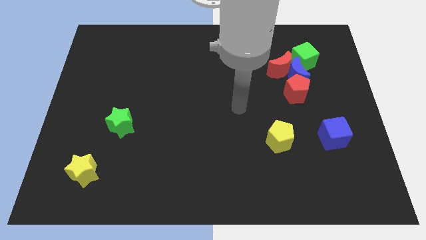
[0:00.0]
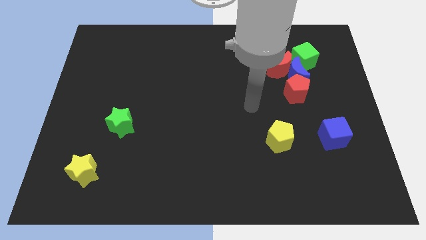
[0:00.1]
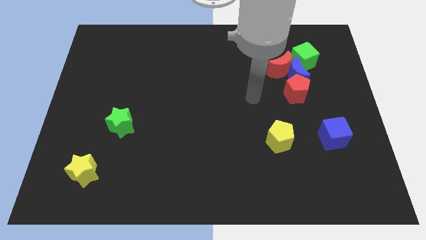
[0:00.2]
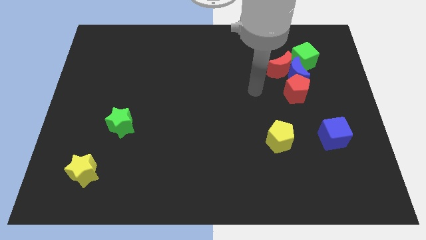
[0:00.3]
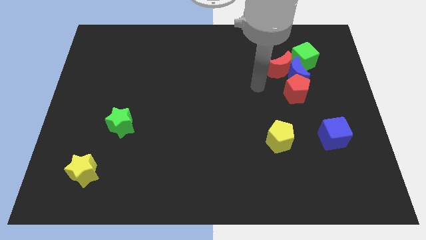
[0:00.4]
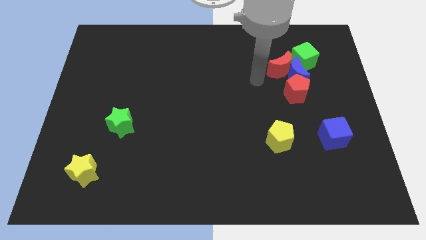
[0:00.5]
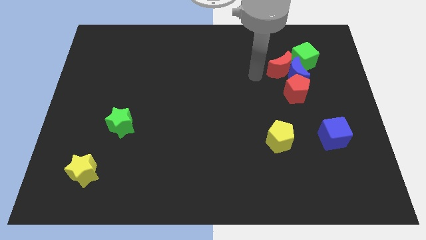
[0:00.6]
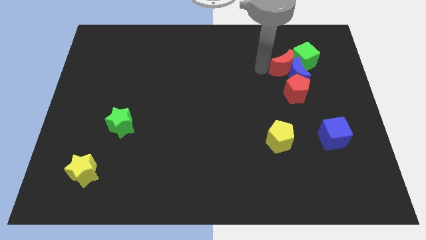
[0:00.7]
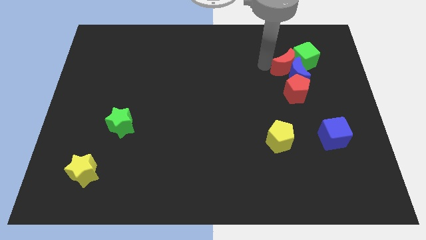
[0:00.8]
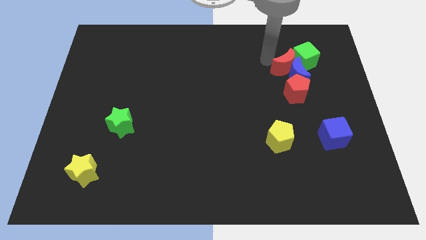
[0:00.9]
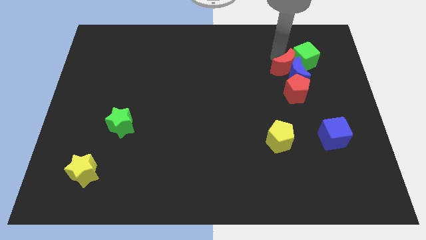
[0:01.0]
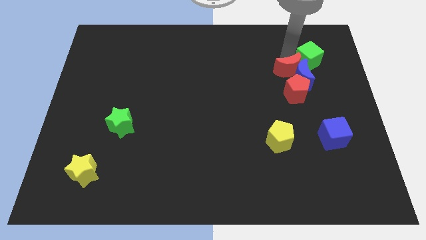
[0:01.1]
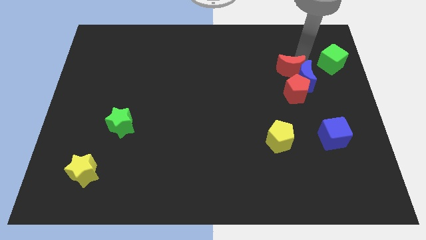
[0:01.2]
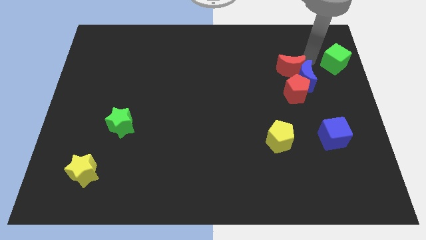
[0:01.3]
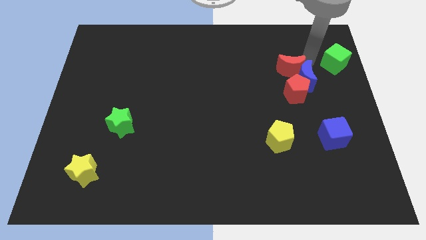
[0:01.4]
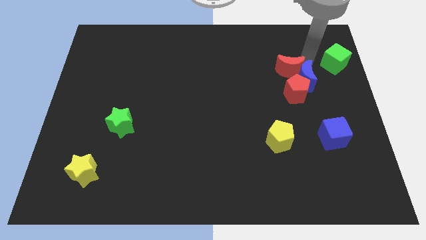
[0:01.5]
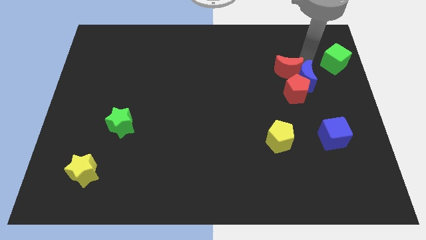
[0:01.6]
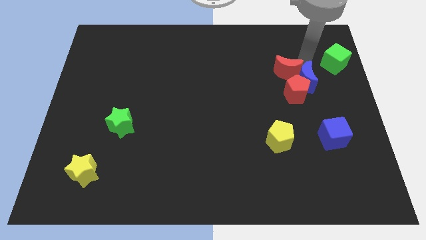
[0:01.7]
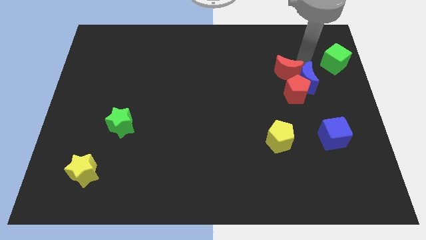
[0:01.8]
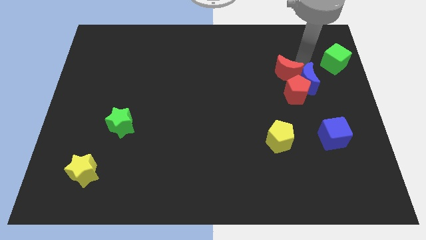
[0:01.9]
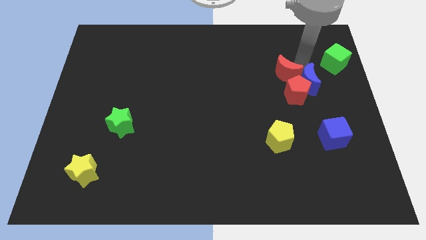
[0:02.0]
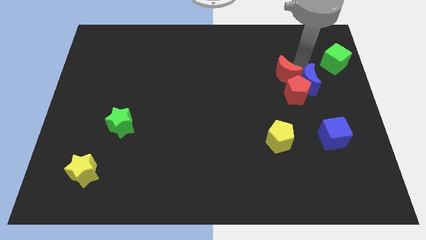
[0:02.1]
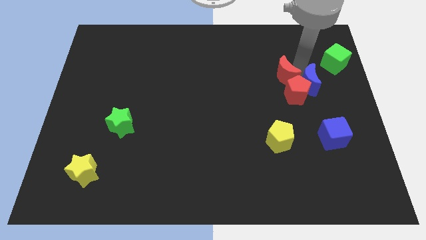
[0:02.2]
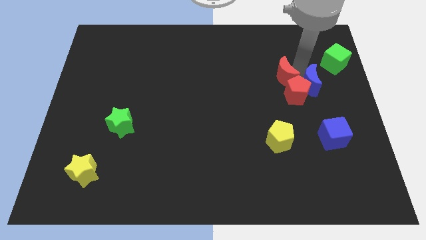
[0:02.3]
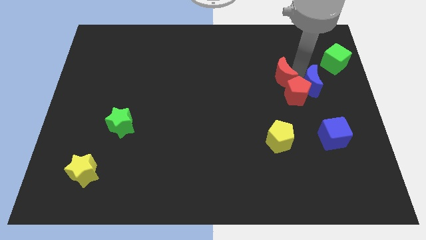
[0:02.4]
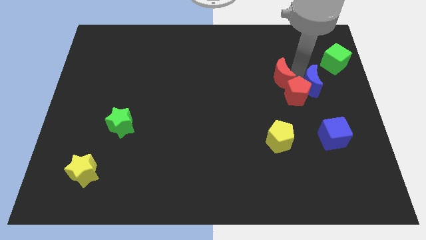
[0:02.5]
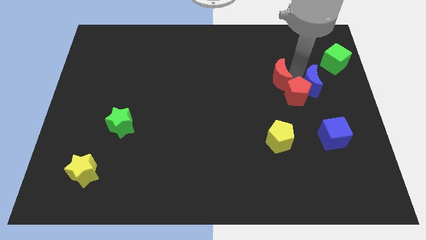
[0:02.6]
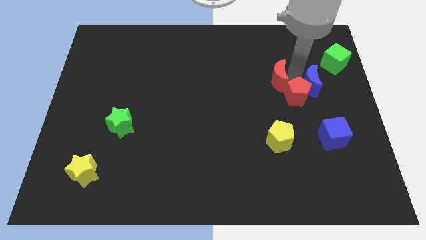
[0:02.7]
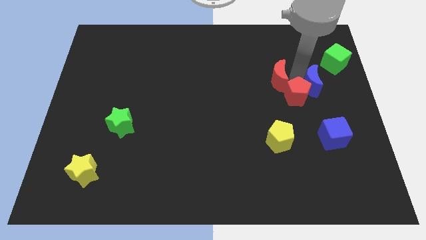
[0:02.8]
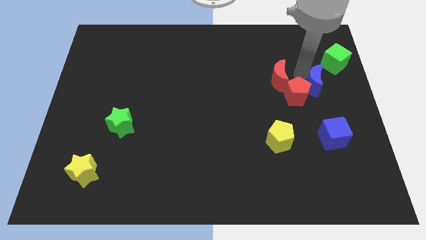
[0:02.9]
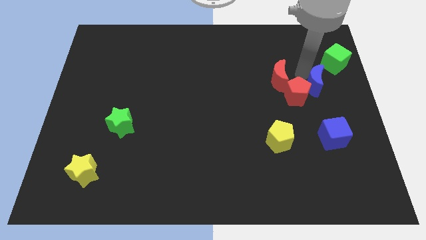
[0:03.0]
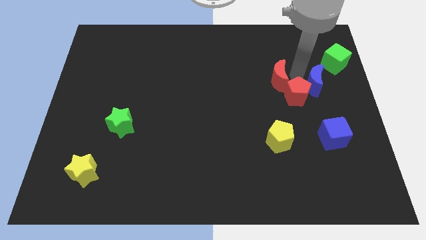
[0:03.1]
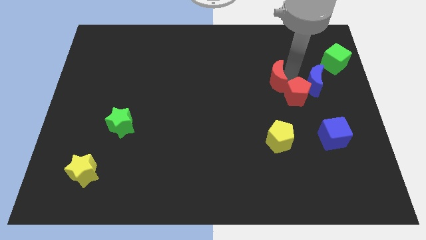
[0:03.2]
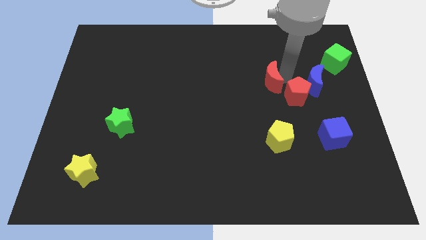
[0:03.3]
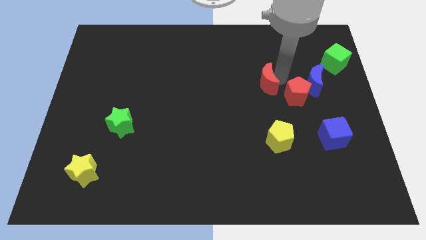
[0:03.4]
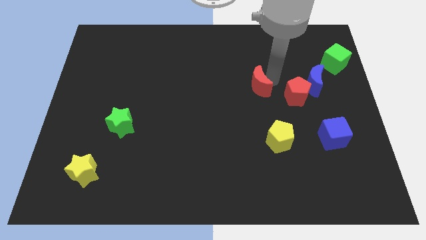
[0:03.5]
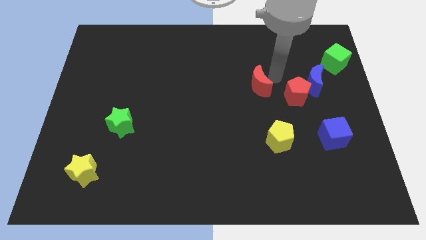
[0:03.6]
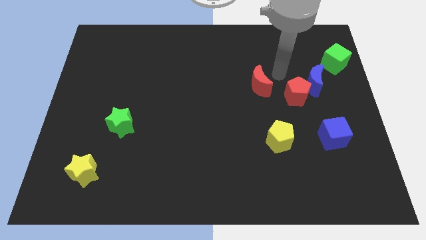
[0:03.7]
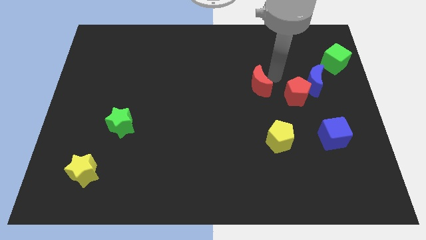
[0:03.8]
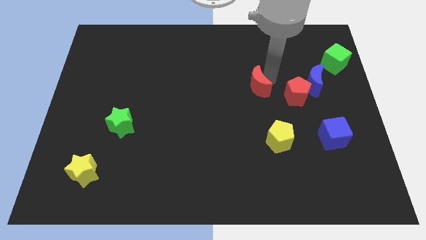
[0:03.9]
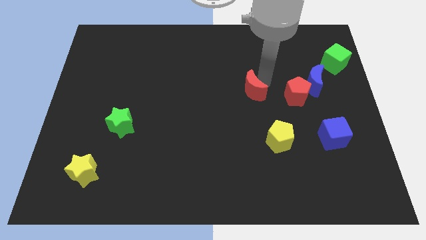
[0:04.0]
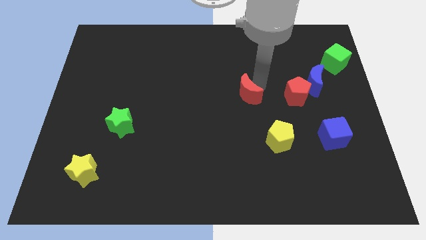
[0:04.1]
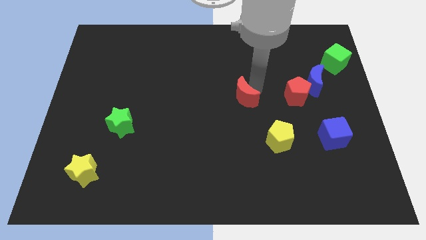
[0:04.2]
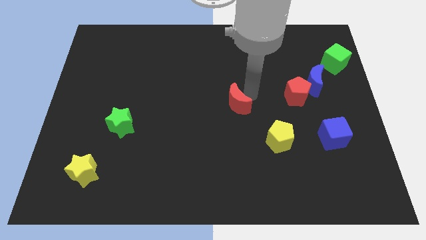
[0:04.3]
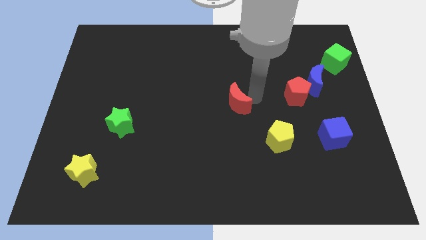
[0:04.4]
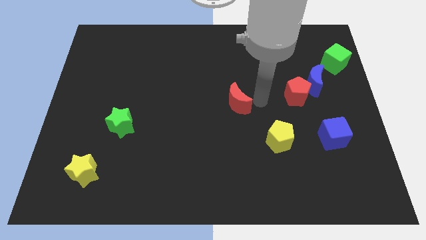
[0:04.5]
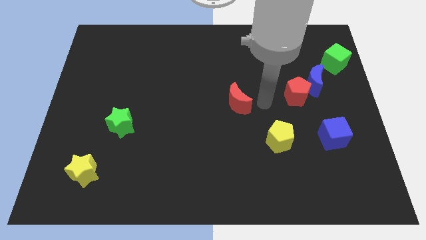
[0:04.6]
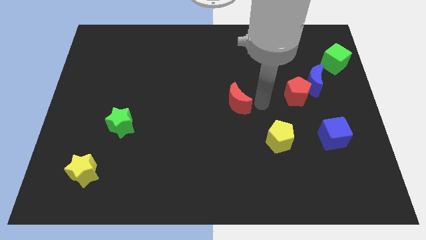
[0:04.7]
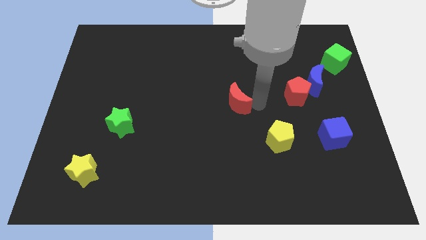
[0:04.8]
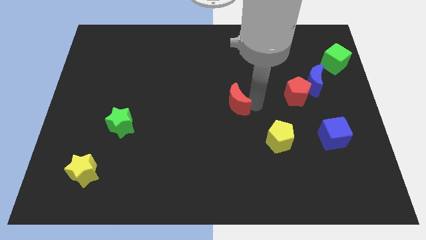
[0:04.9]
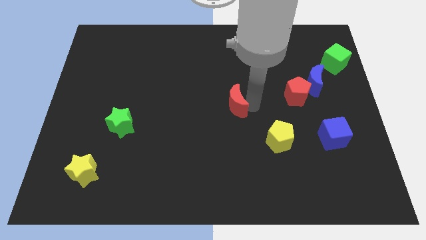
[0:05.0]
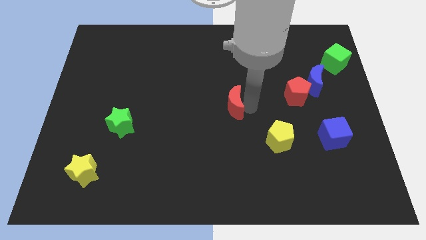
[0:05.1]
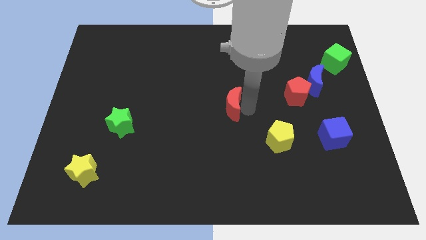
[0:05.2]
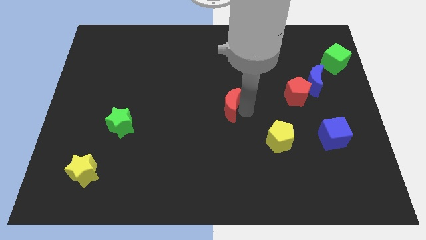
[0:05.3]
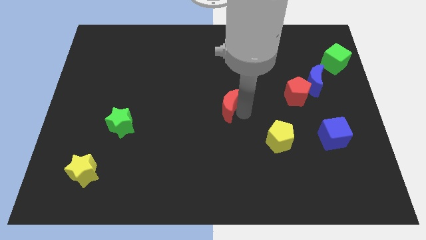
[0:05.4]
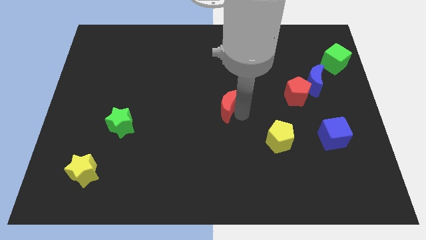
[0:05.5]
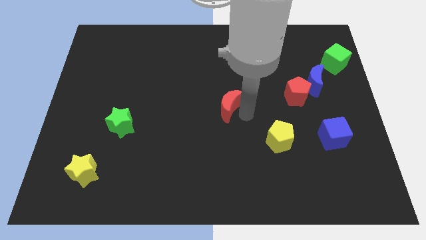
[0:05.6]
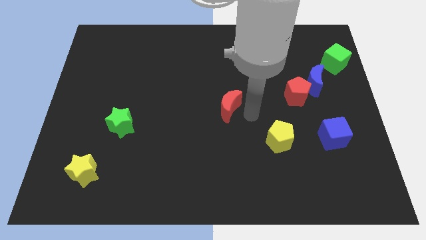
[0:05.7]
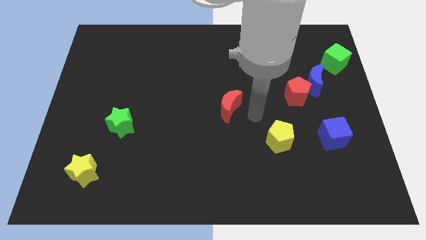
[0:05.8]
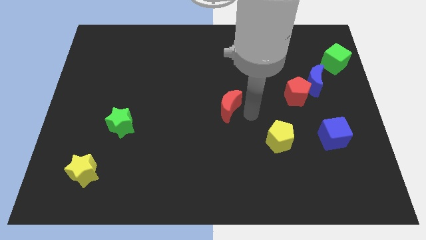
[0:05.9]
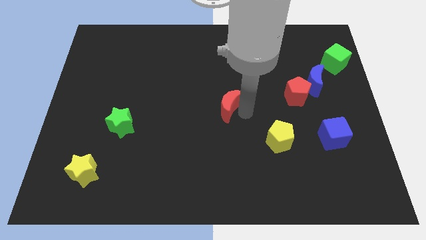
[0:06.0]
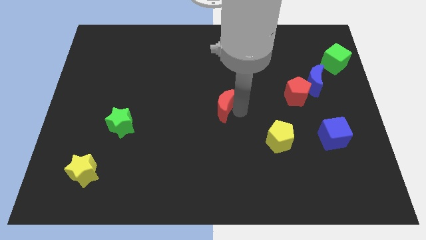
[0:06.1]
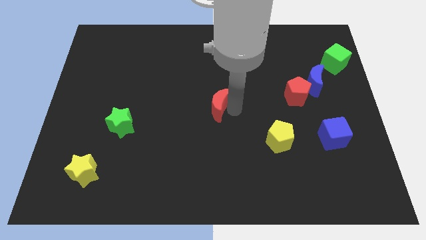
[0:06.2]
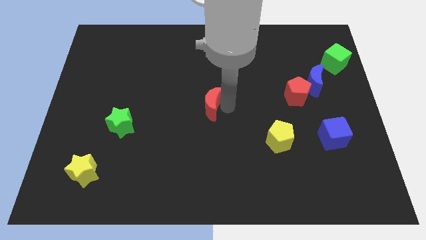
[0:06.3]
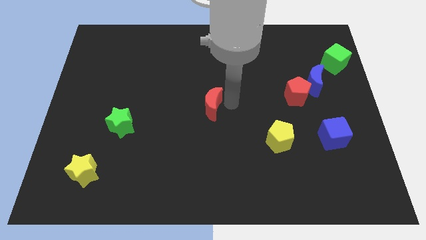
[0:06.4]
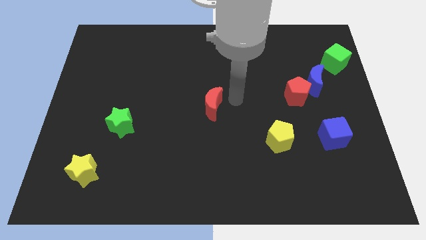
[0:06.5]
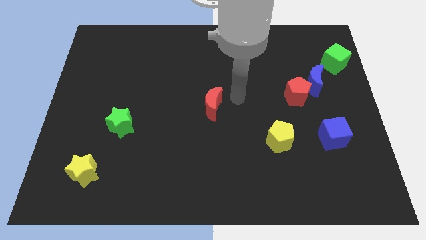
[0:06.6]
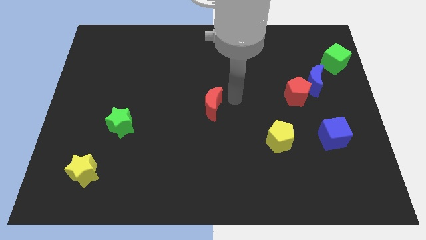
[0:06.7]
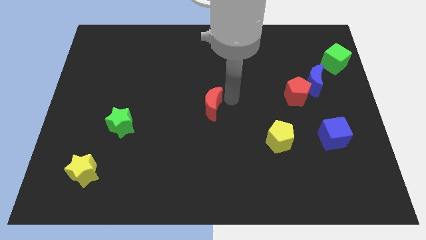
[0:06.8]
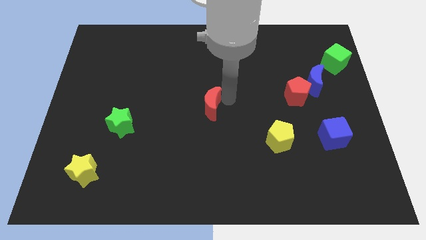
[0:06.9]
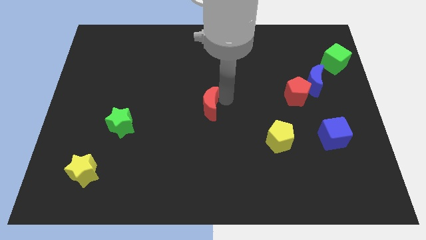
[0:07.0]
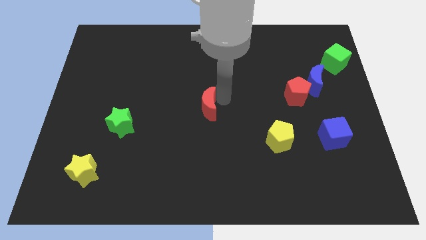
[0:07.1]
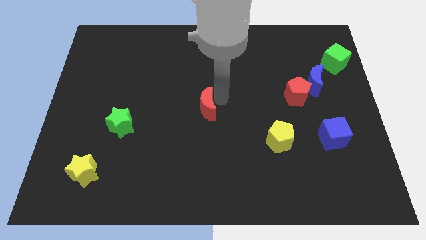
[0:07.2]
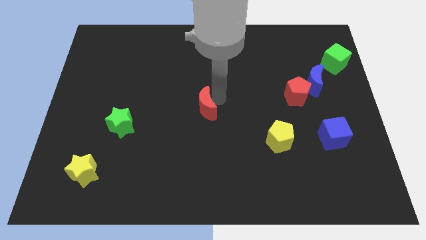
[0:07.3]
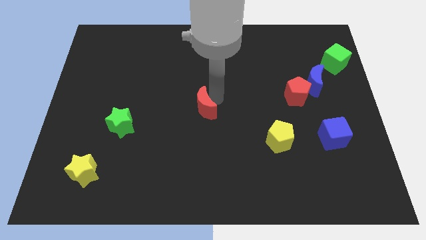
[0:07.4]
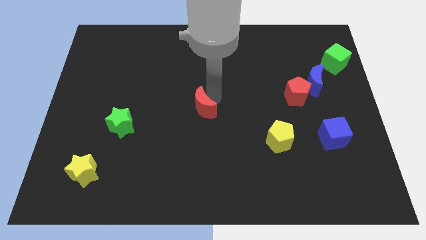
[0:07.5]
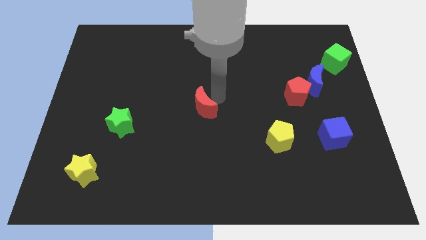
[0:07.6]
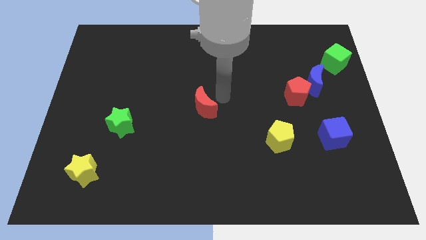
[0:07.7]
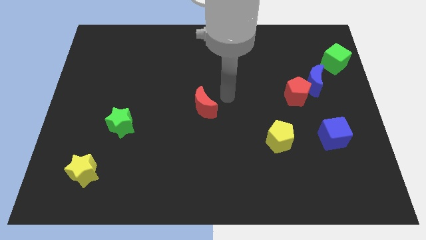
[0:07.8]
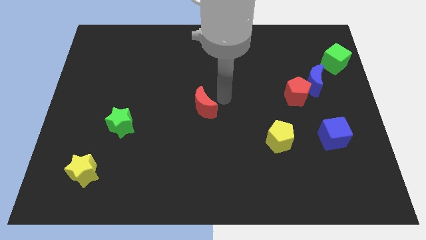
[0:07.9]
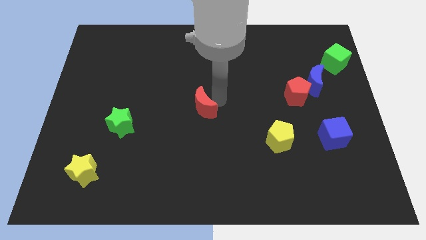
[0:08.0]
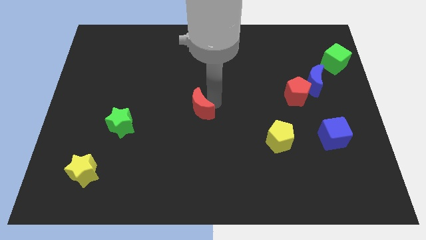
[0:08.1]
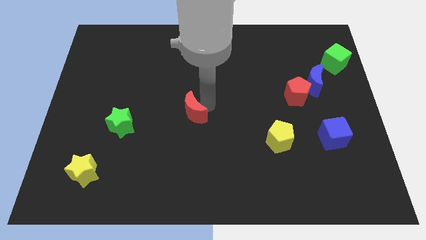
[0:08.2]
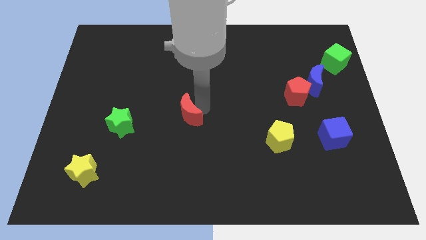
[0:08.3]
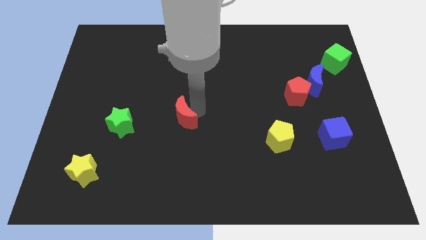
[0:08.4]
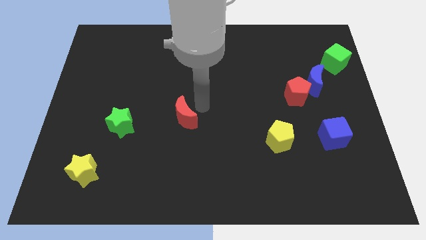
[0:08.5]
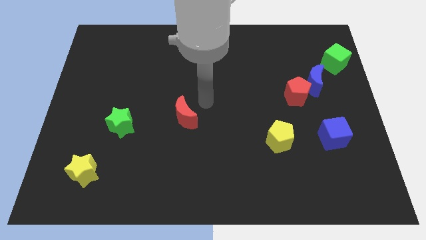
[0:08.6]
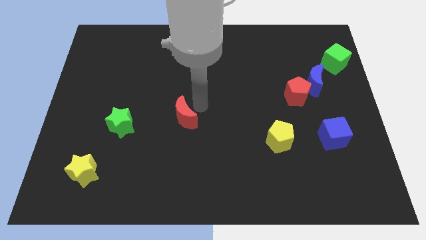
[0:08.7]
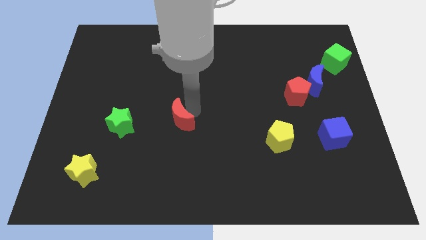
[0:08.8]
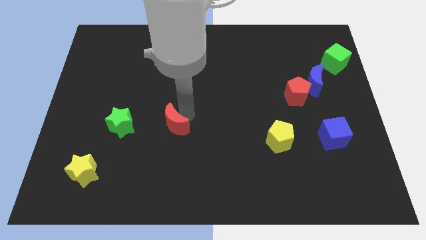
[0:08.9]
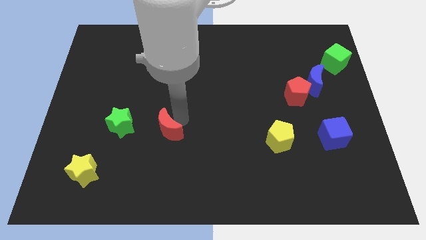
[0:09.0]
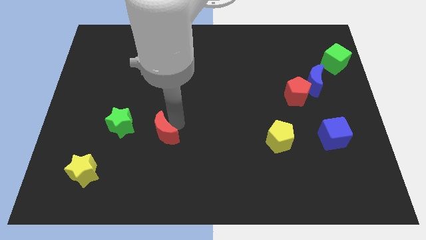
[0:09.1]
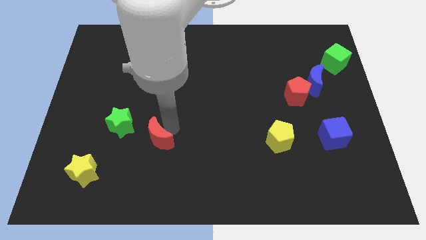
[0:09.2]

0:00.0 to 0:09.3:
put the red moon to the bottom right of the green star
